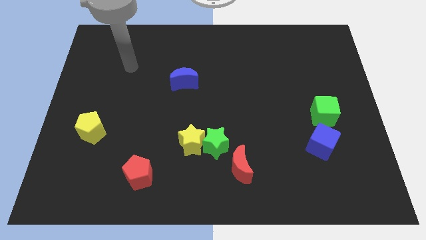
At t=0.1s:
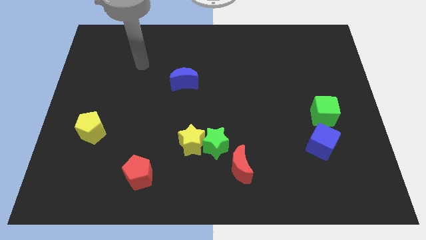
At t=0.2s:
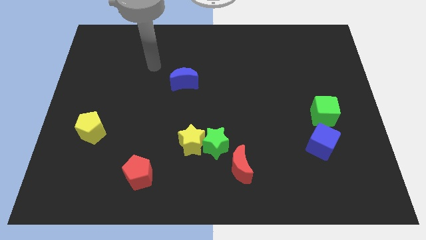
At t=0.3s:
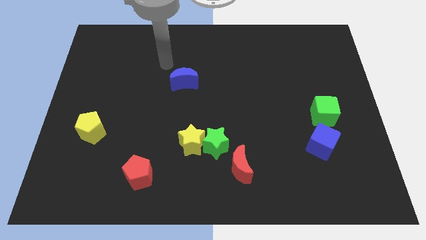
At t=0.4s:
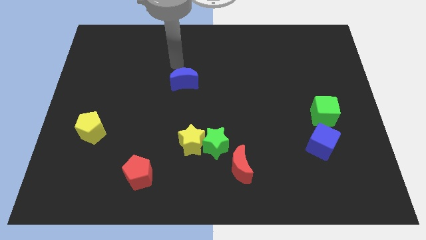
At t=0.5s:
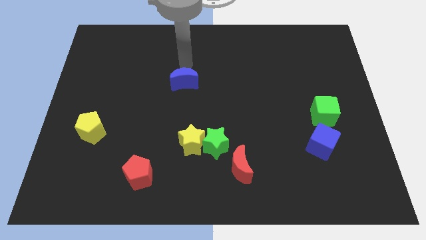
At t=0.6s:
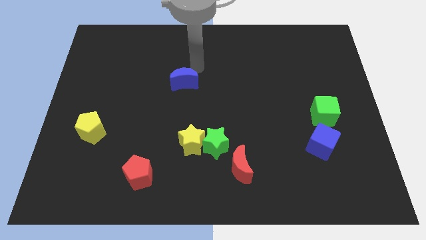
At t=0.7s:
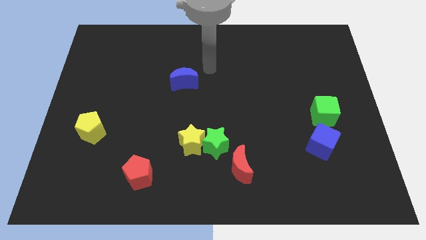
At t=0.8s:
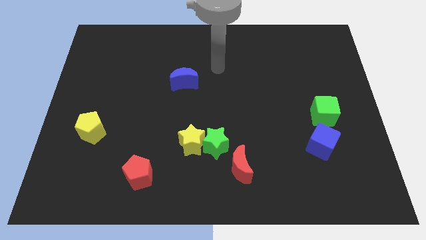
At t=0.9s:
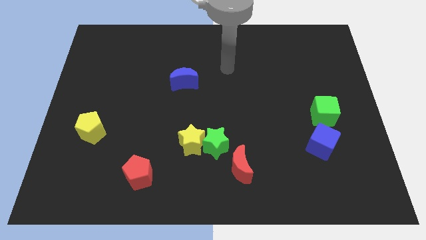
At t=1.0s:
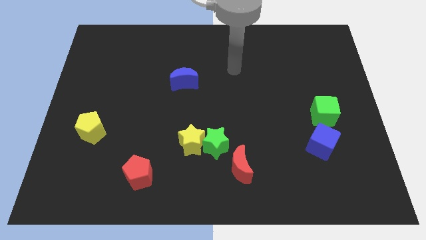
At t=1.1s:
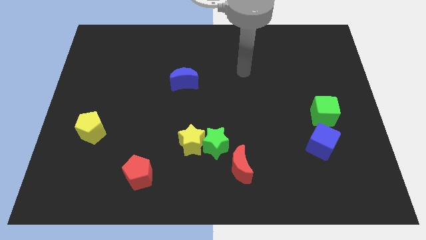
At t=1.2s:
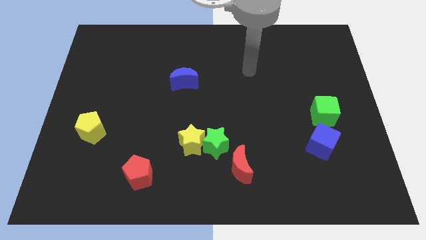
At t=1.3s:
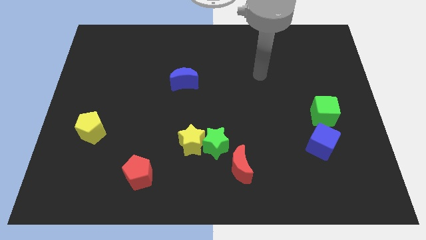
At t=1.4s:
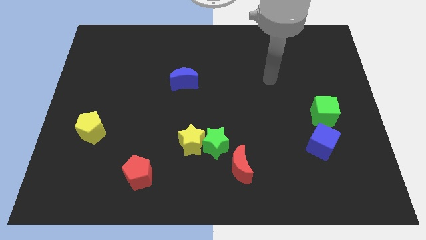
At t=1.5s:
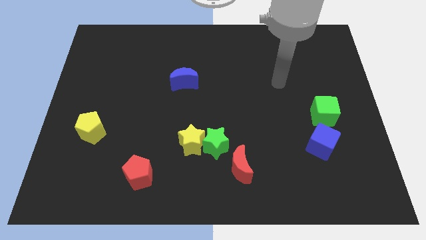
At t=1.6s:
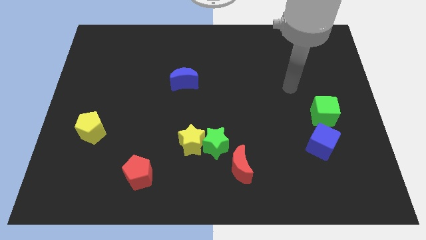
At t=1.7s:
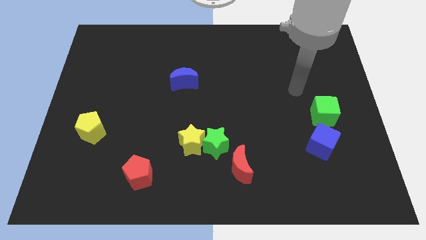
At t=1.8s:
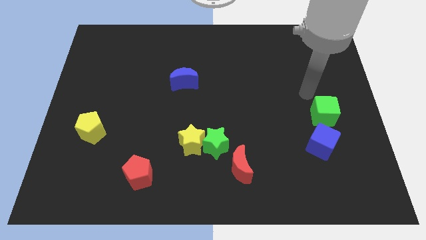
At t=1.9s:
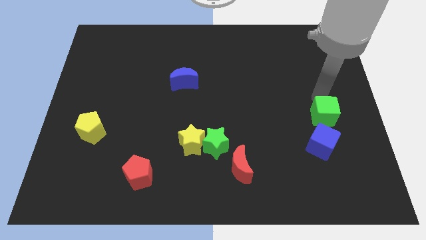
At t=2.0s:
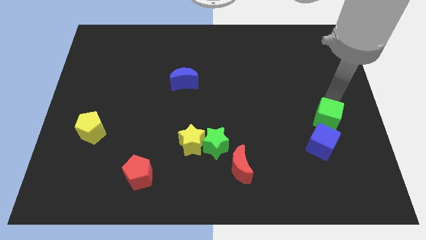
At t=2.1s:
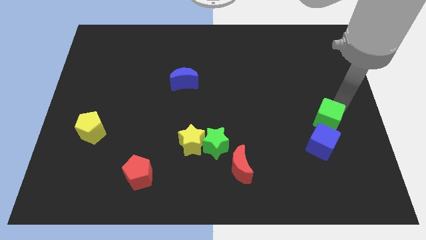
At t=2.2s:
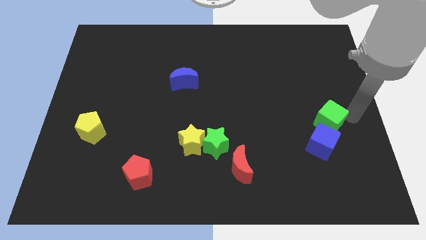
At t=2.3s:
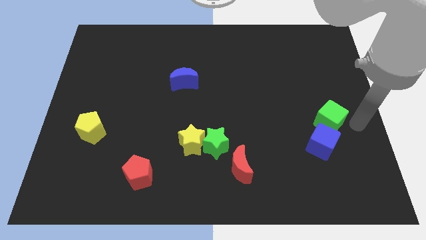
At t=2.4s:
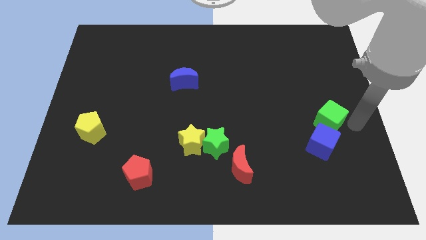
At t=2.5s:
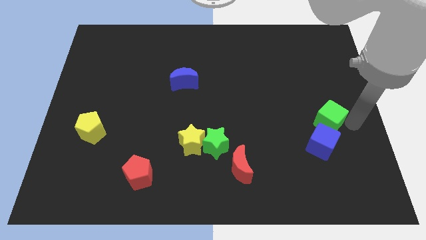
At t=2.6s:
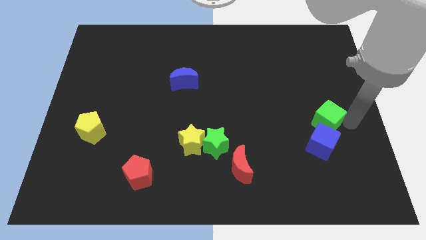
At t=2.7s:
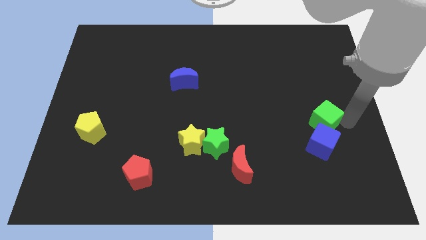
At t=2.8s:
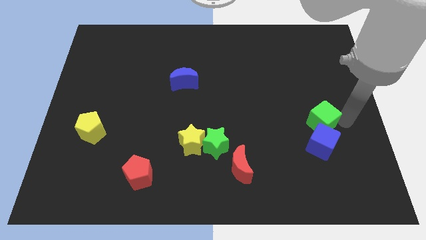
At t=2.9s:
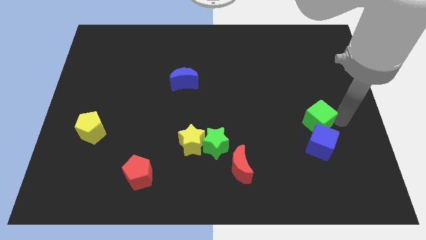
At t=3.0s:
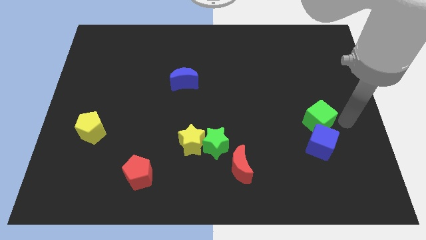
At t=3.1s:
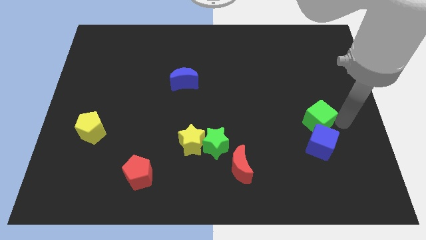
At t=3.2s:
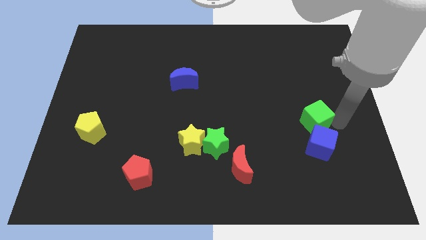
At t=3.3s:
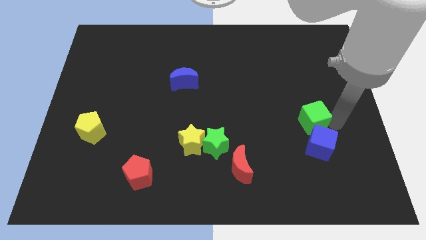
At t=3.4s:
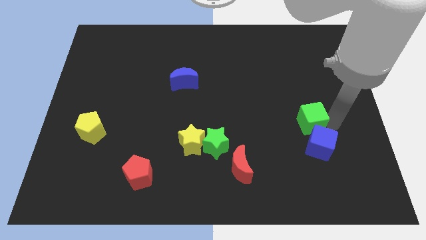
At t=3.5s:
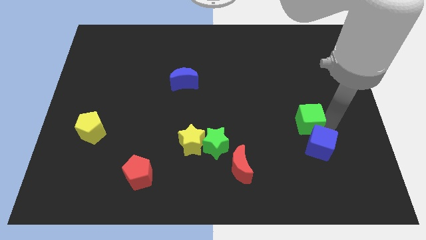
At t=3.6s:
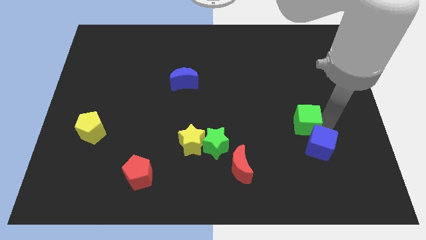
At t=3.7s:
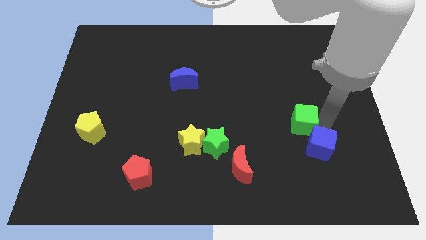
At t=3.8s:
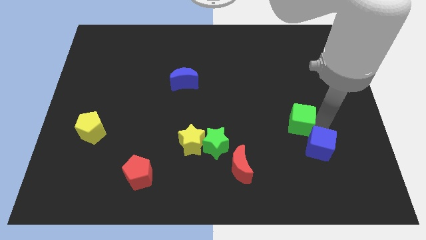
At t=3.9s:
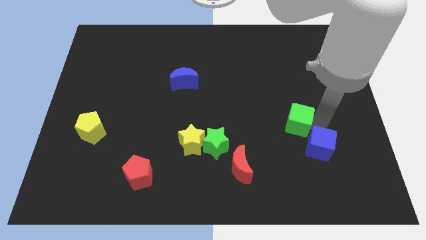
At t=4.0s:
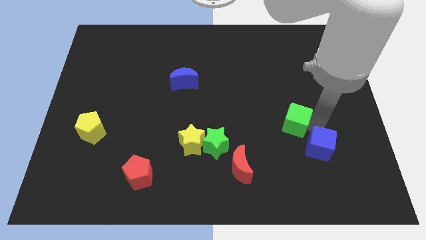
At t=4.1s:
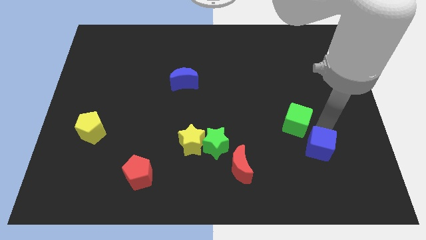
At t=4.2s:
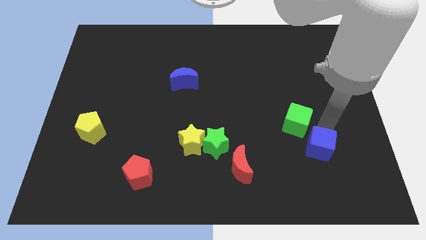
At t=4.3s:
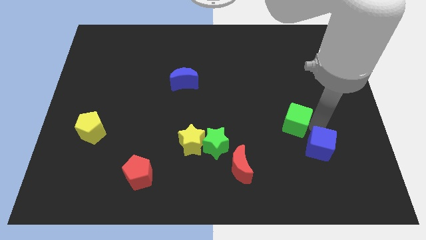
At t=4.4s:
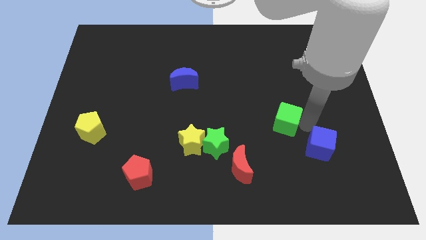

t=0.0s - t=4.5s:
slide the green cube to the left slightly

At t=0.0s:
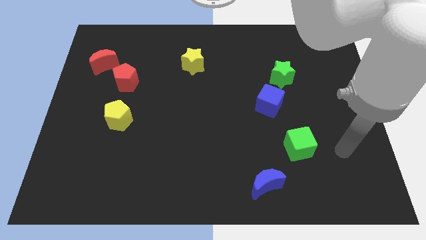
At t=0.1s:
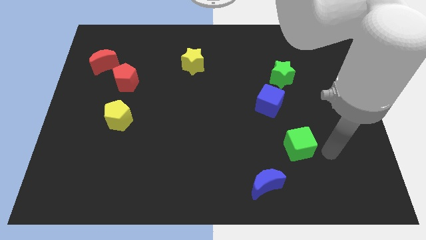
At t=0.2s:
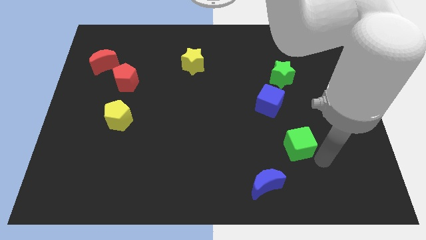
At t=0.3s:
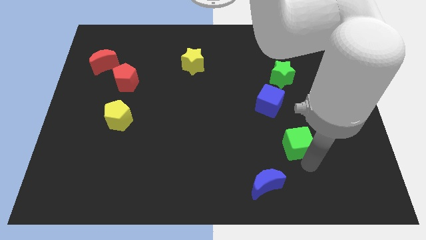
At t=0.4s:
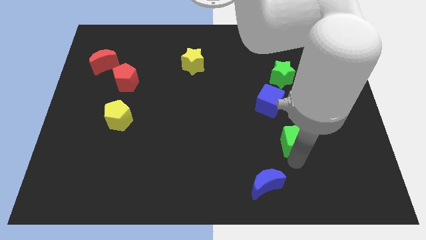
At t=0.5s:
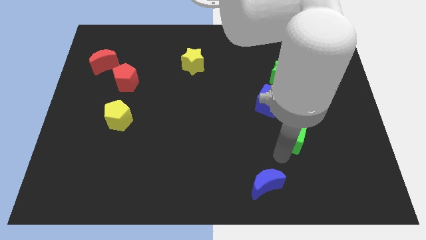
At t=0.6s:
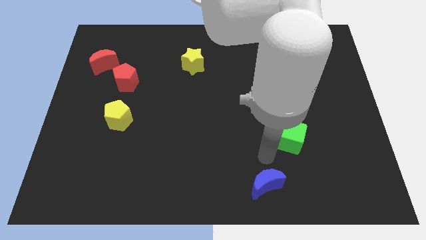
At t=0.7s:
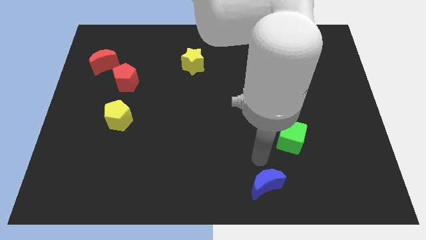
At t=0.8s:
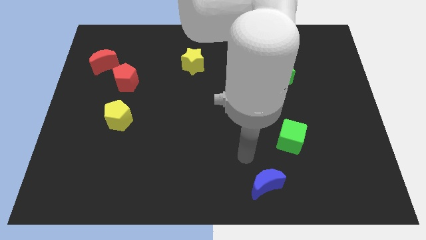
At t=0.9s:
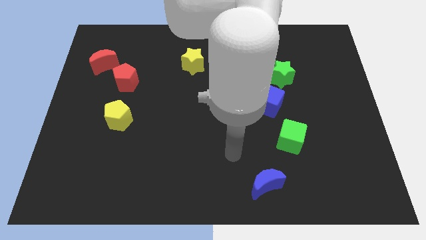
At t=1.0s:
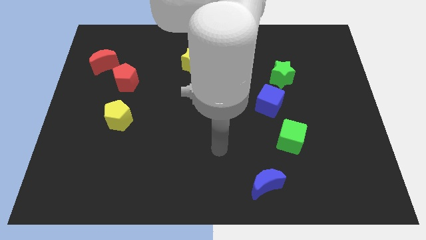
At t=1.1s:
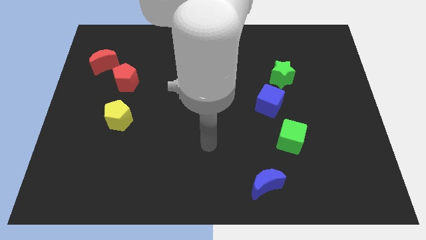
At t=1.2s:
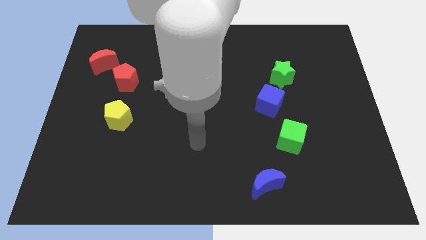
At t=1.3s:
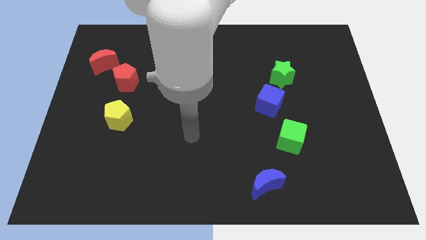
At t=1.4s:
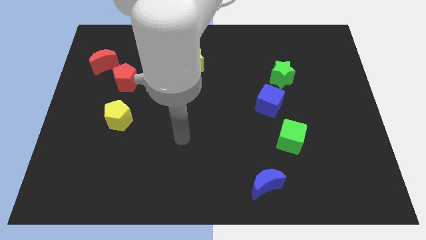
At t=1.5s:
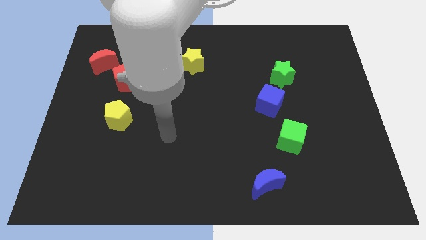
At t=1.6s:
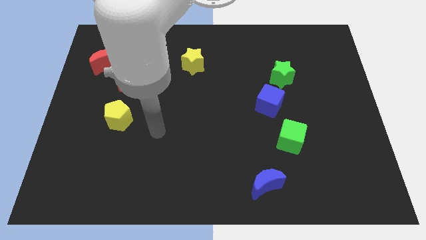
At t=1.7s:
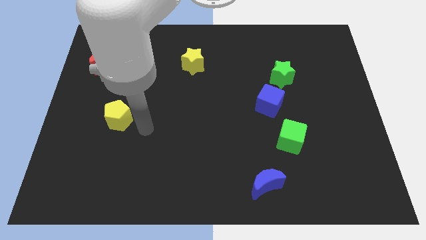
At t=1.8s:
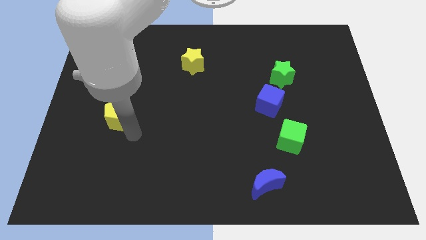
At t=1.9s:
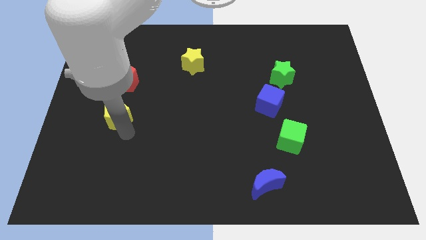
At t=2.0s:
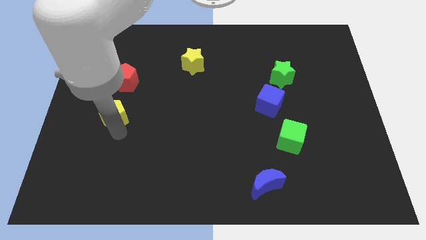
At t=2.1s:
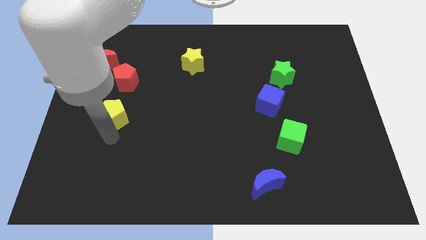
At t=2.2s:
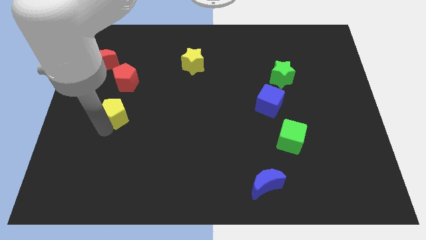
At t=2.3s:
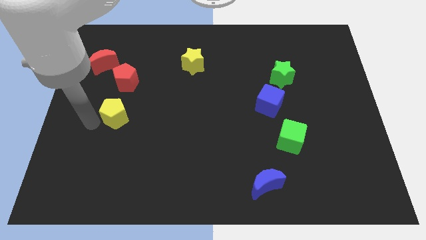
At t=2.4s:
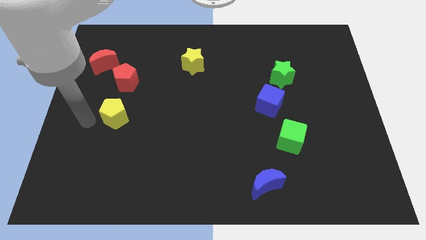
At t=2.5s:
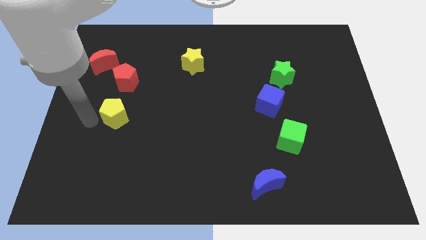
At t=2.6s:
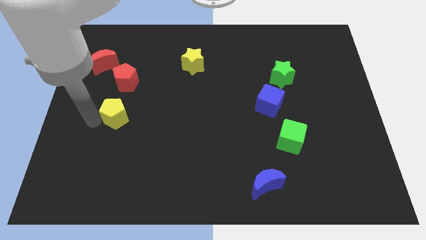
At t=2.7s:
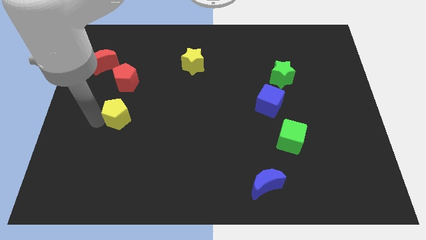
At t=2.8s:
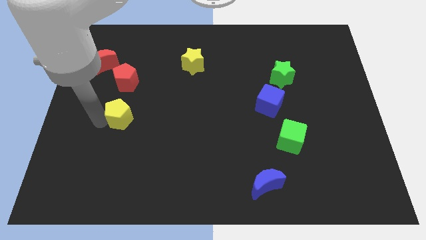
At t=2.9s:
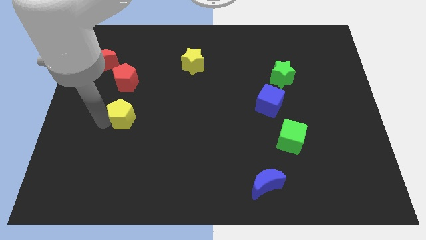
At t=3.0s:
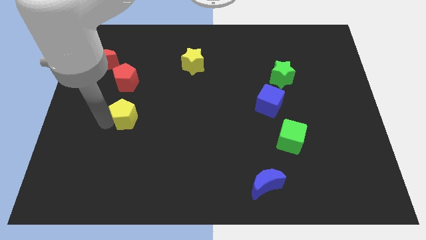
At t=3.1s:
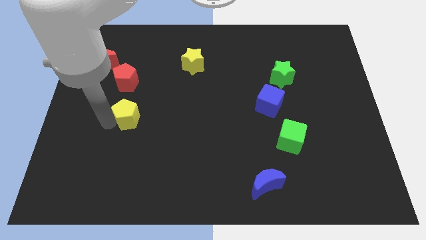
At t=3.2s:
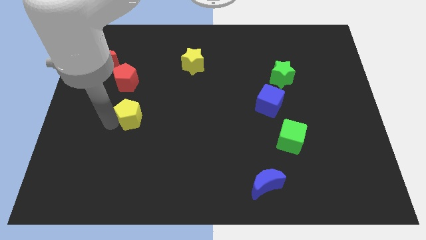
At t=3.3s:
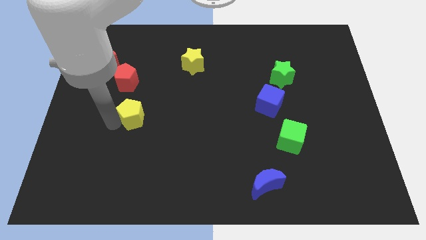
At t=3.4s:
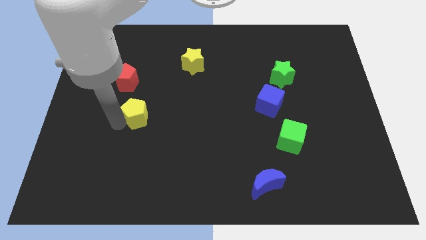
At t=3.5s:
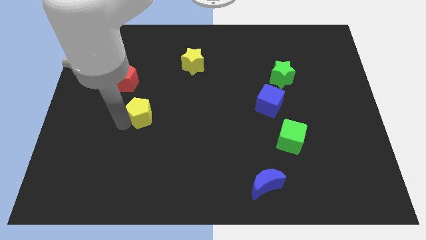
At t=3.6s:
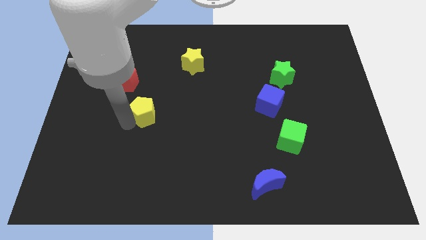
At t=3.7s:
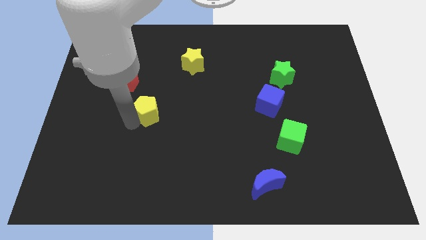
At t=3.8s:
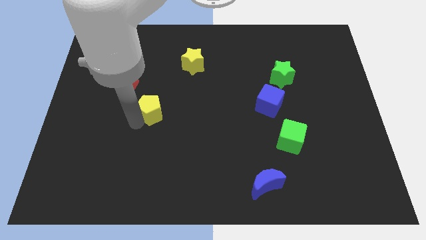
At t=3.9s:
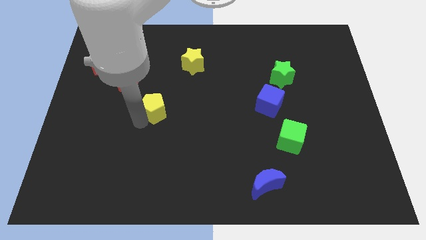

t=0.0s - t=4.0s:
move the yellow pentagon up and right a bit
